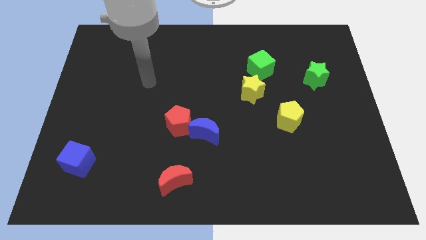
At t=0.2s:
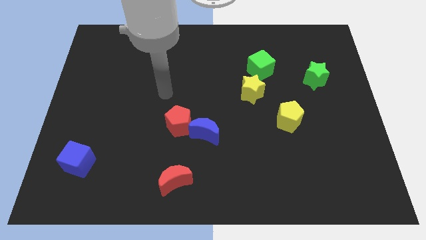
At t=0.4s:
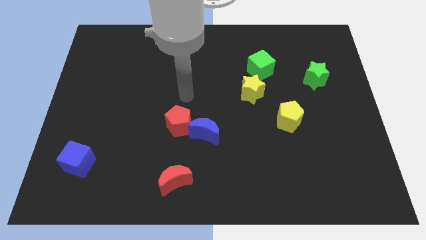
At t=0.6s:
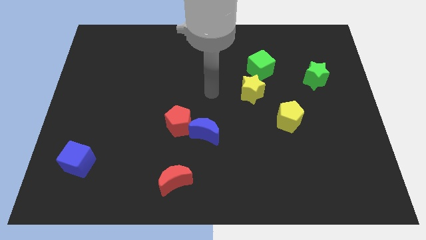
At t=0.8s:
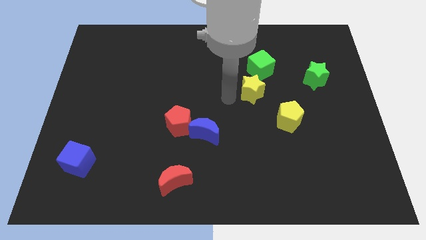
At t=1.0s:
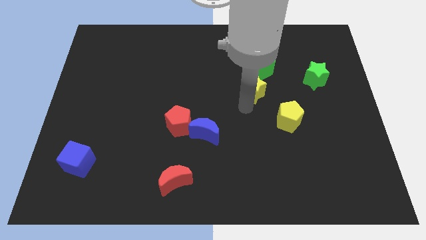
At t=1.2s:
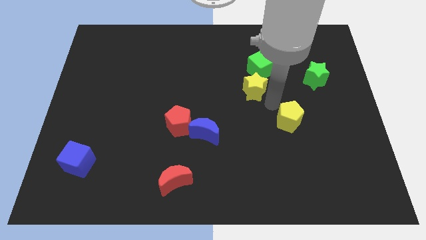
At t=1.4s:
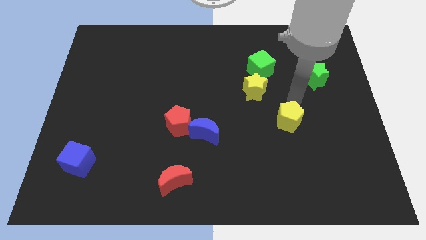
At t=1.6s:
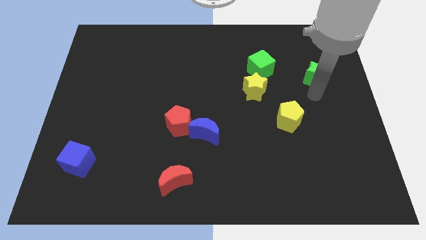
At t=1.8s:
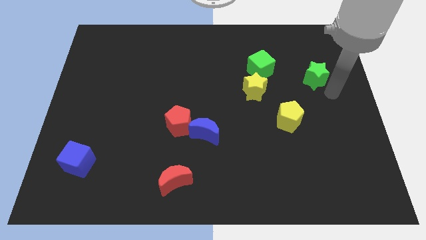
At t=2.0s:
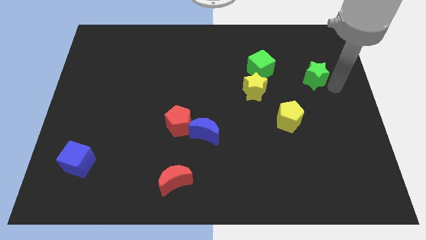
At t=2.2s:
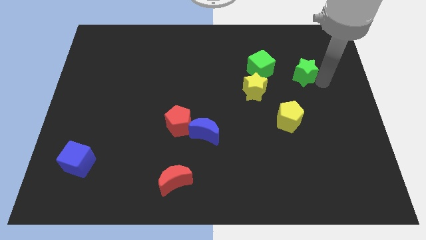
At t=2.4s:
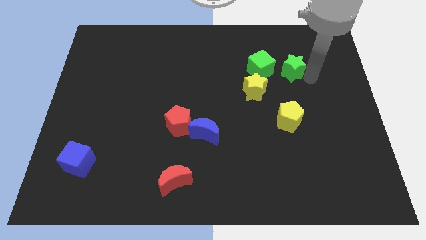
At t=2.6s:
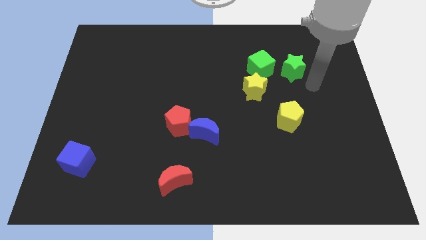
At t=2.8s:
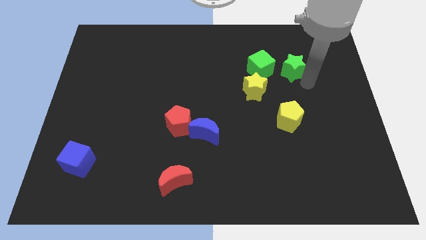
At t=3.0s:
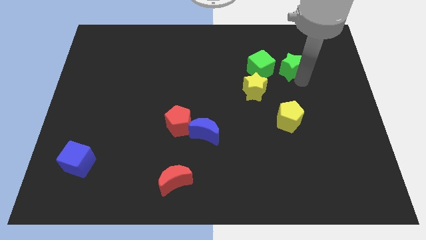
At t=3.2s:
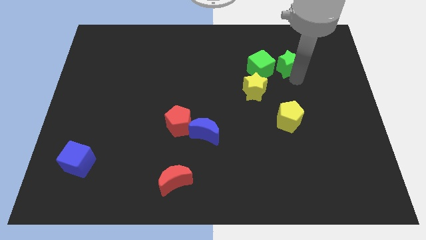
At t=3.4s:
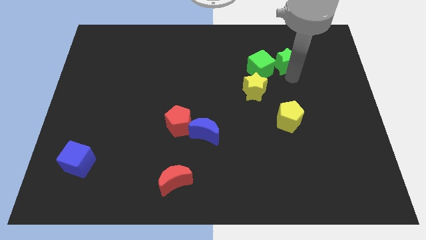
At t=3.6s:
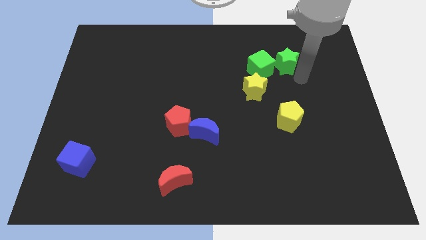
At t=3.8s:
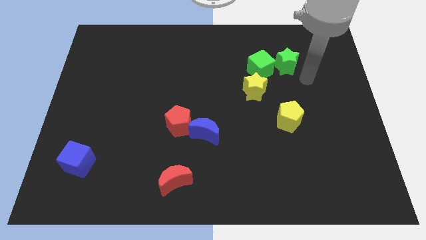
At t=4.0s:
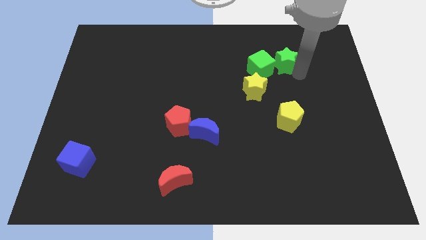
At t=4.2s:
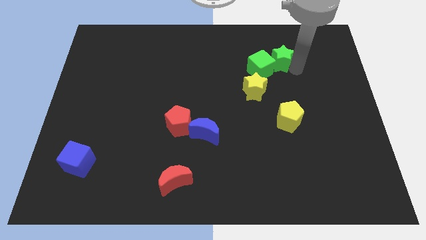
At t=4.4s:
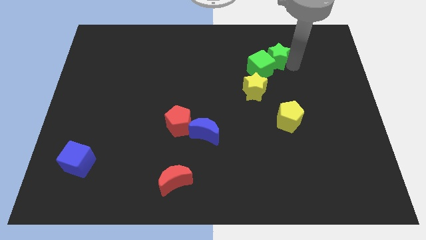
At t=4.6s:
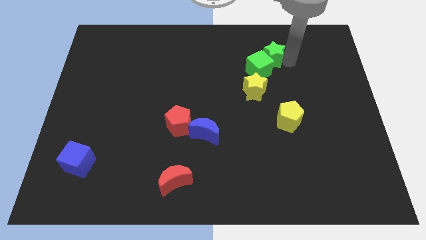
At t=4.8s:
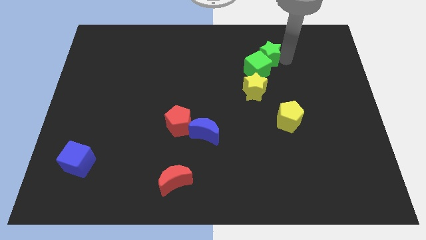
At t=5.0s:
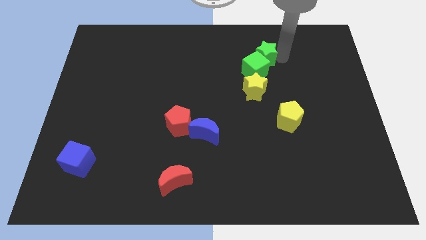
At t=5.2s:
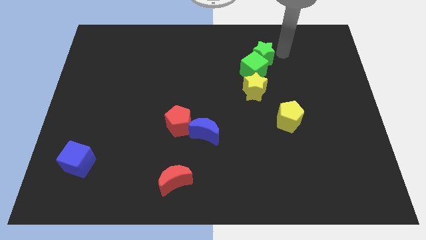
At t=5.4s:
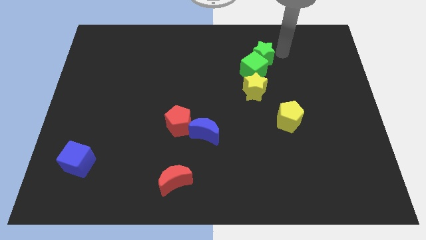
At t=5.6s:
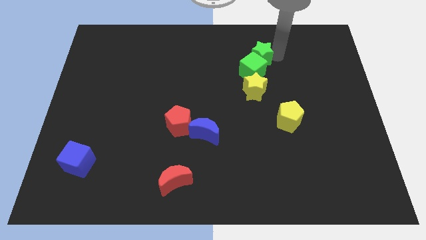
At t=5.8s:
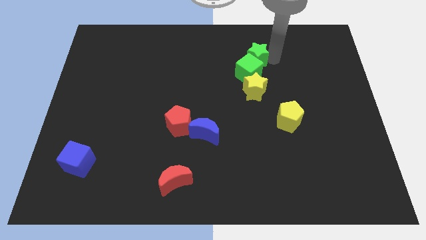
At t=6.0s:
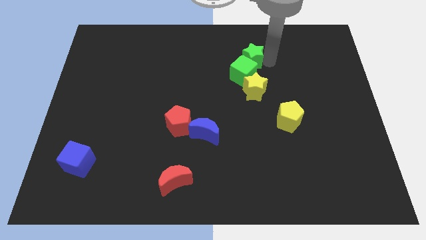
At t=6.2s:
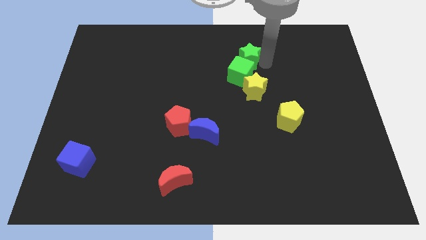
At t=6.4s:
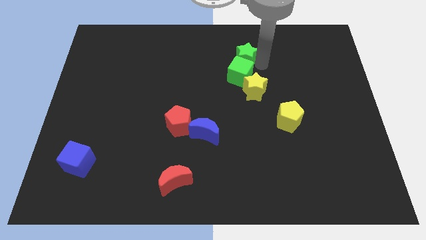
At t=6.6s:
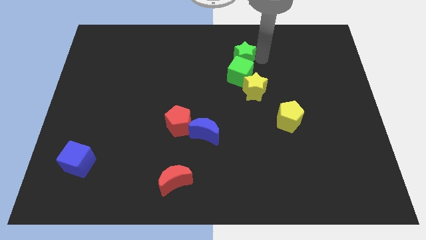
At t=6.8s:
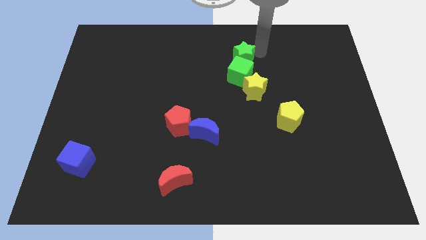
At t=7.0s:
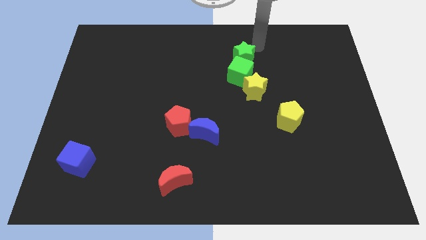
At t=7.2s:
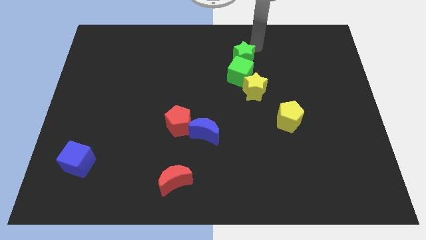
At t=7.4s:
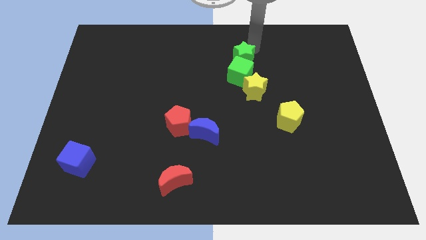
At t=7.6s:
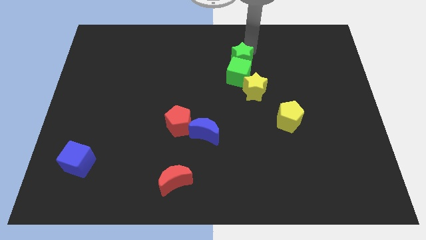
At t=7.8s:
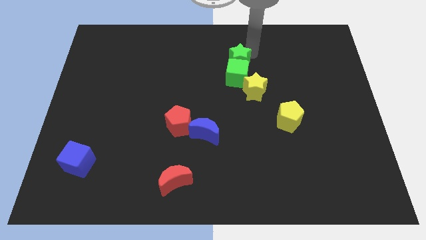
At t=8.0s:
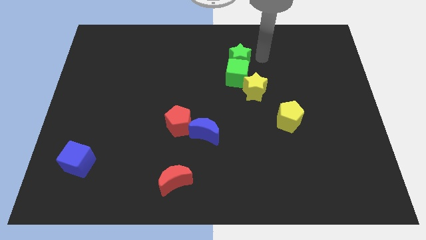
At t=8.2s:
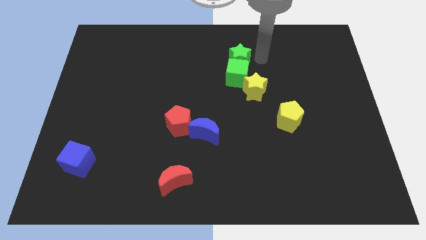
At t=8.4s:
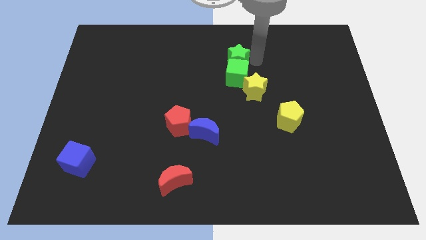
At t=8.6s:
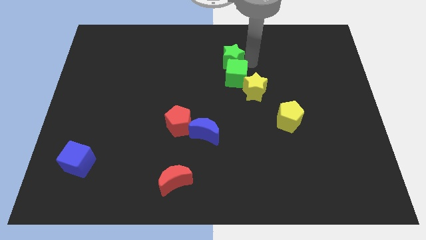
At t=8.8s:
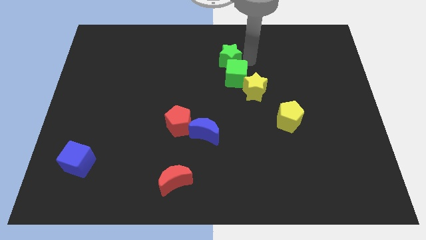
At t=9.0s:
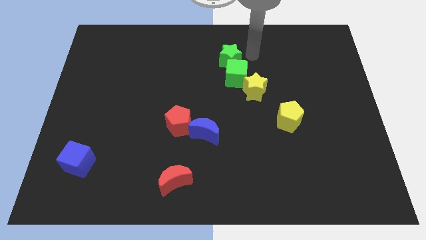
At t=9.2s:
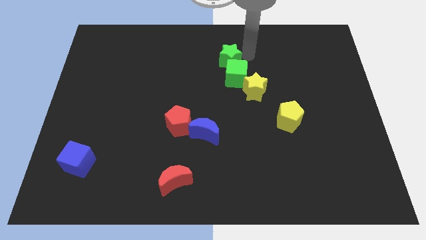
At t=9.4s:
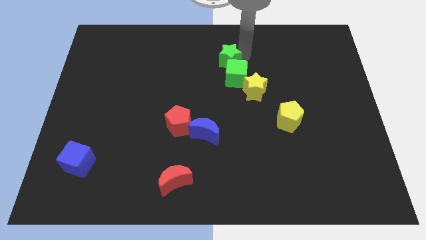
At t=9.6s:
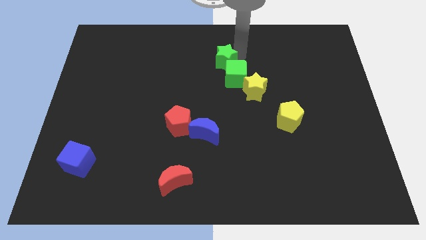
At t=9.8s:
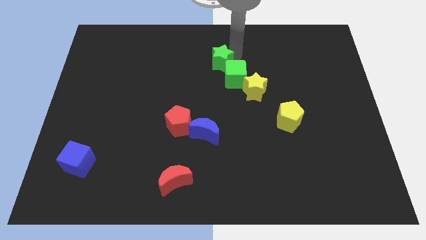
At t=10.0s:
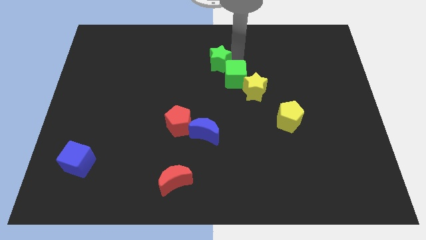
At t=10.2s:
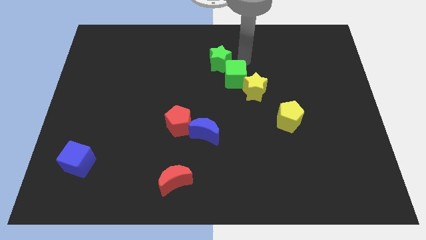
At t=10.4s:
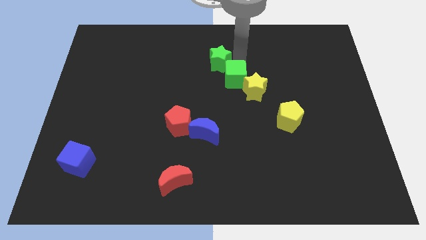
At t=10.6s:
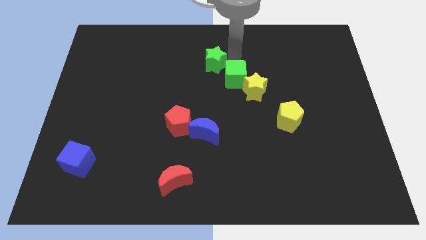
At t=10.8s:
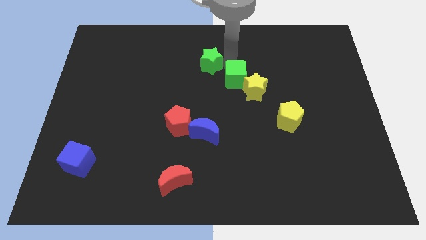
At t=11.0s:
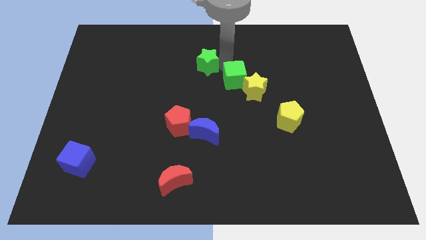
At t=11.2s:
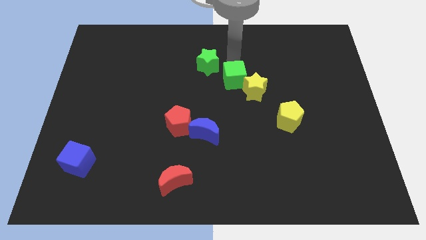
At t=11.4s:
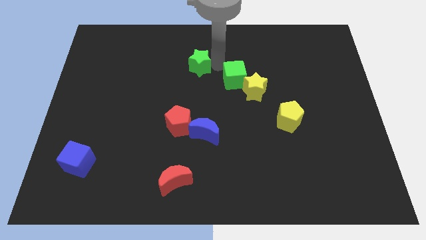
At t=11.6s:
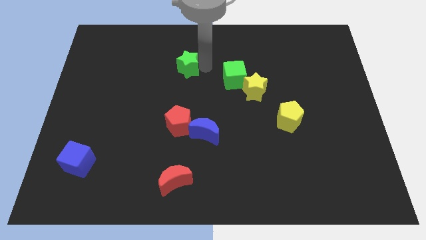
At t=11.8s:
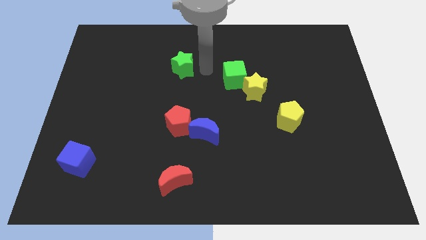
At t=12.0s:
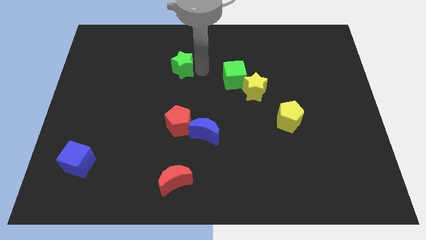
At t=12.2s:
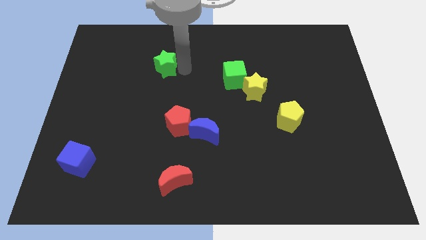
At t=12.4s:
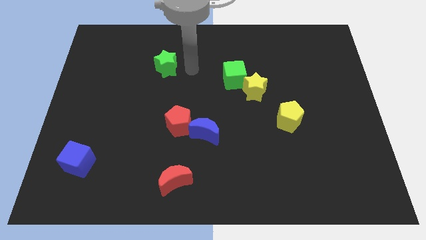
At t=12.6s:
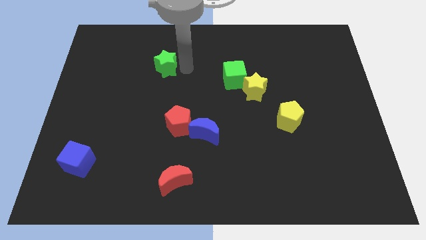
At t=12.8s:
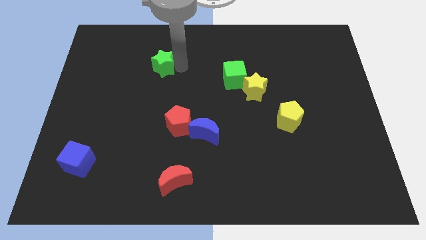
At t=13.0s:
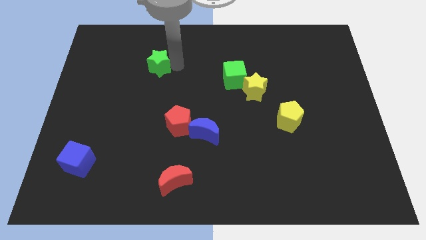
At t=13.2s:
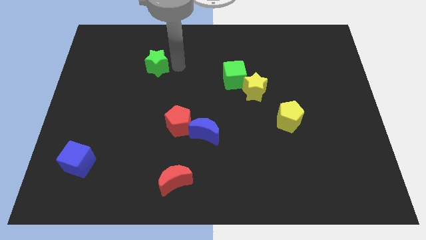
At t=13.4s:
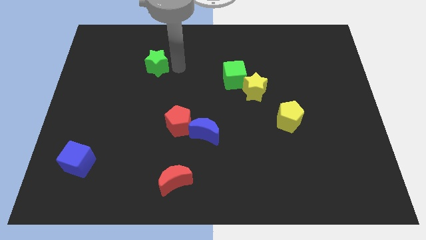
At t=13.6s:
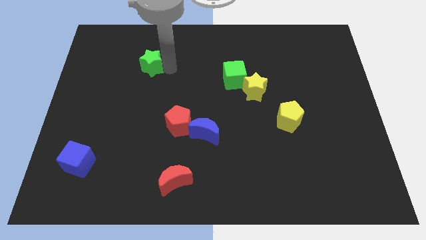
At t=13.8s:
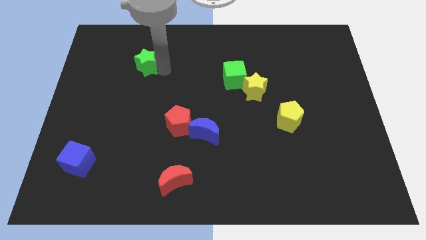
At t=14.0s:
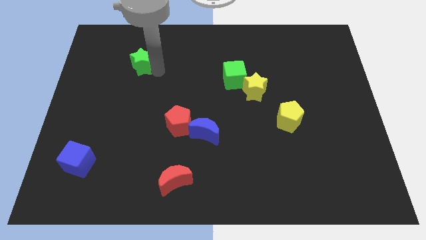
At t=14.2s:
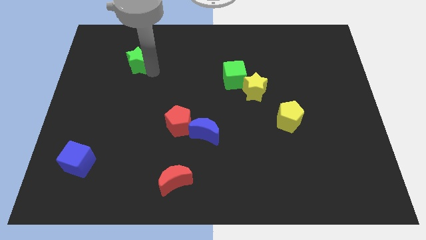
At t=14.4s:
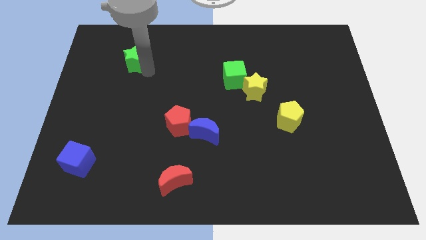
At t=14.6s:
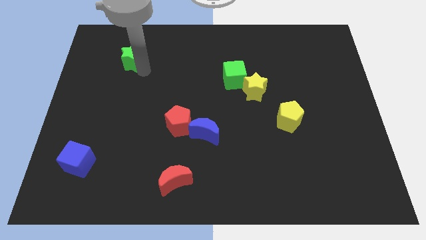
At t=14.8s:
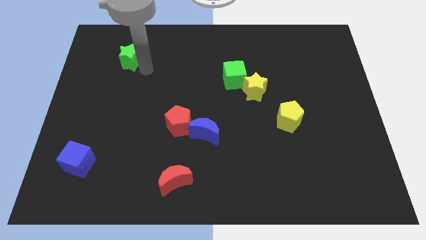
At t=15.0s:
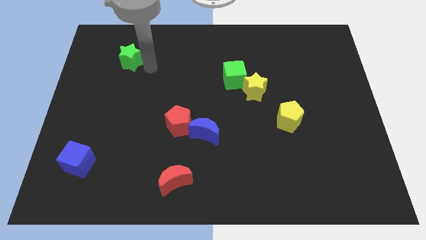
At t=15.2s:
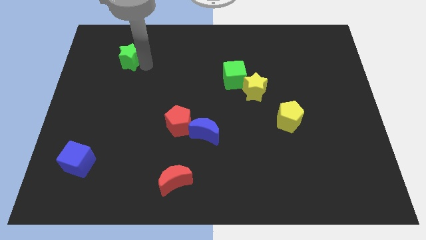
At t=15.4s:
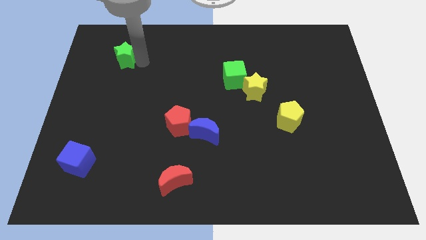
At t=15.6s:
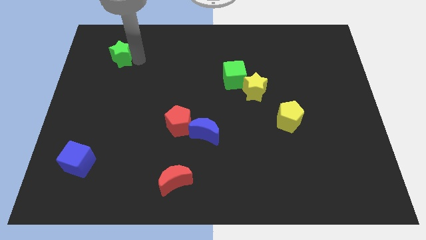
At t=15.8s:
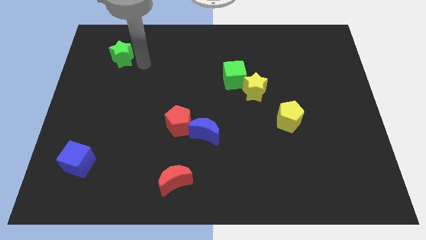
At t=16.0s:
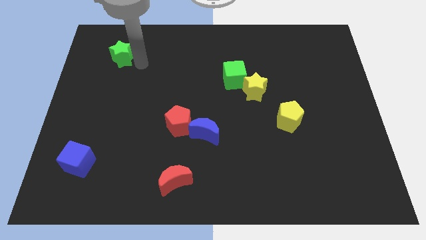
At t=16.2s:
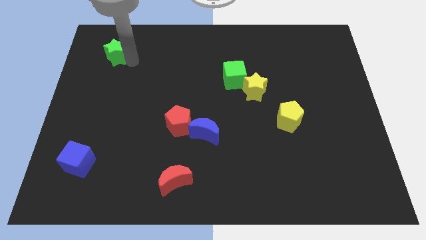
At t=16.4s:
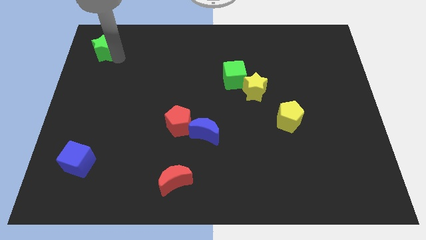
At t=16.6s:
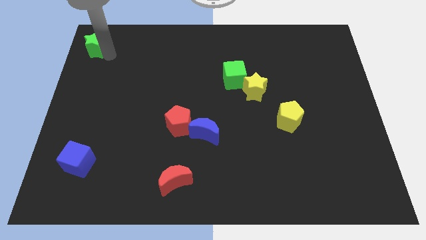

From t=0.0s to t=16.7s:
put the green star to the upper left corner
